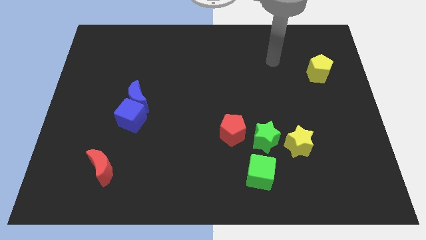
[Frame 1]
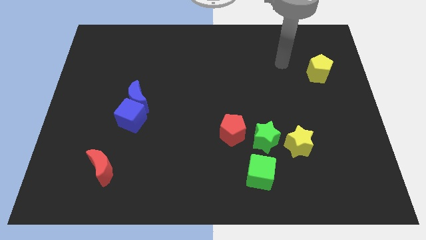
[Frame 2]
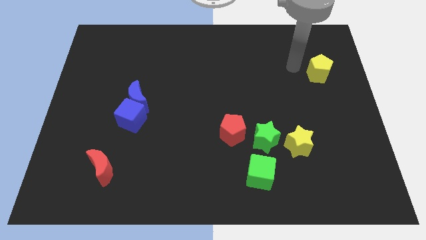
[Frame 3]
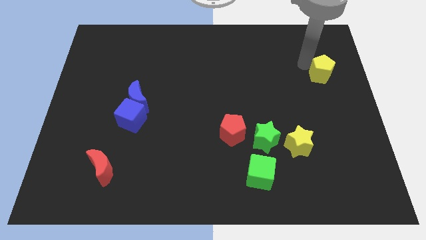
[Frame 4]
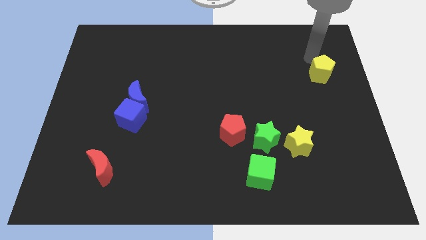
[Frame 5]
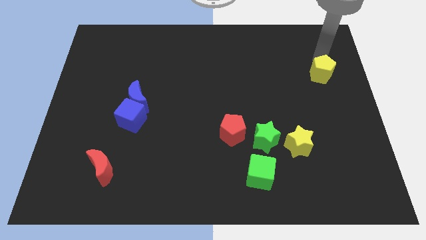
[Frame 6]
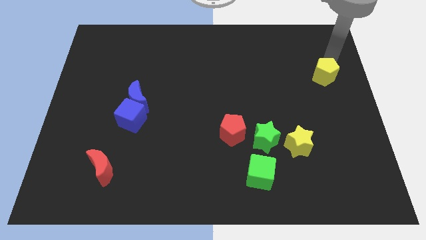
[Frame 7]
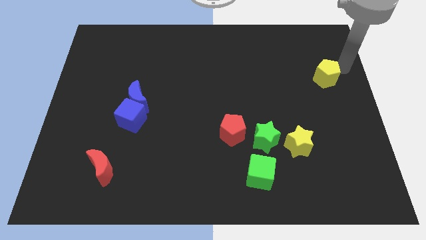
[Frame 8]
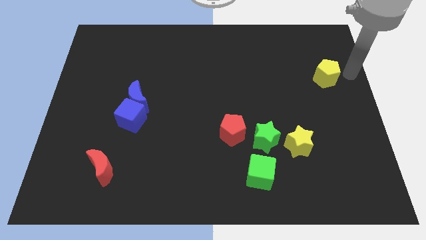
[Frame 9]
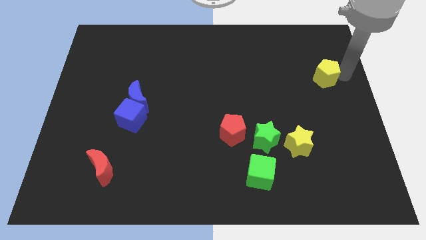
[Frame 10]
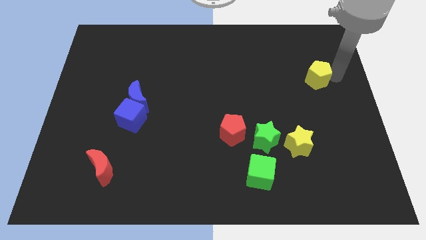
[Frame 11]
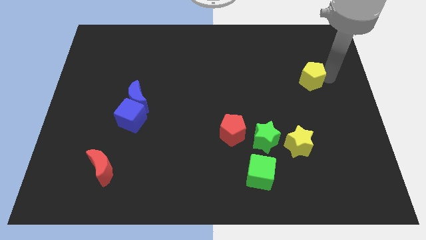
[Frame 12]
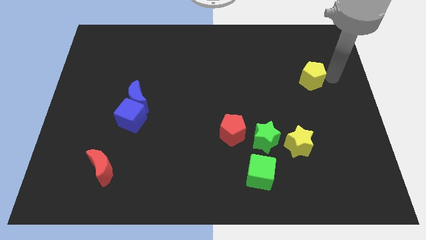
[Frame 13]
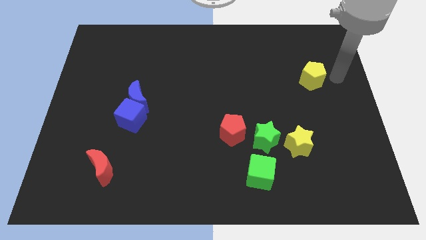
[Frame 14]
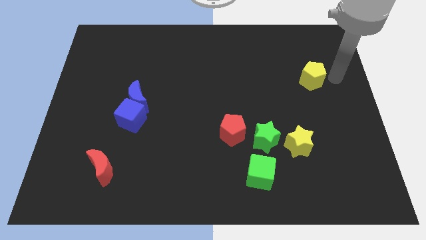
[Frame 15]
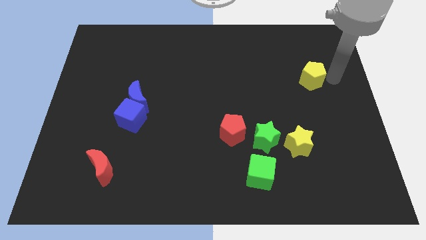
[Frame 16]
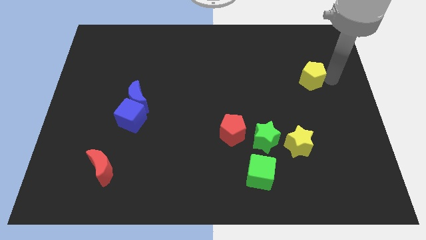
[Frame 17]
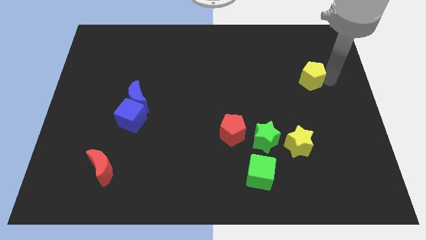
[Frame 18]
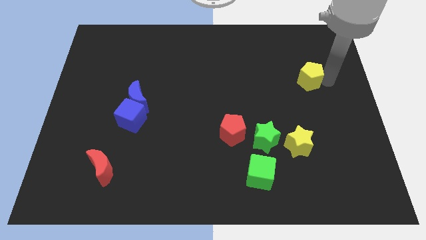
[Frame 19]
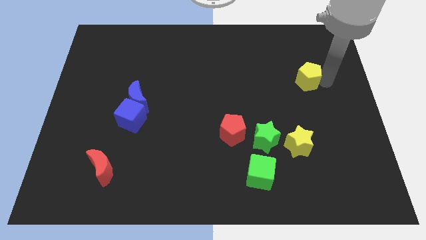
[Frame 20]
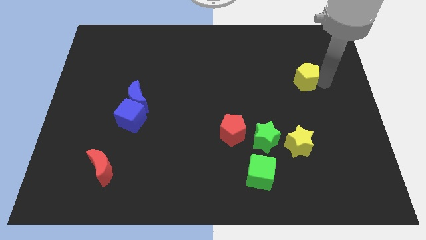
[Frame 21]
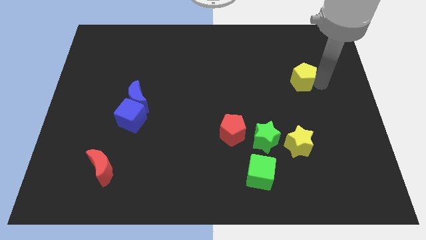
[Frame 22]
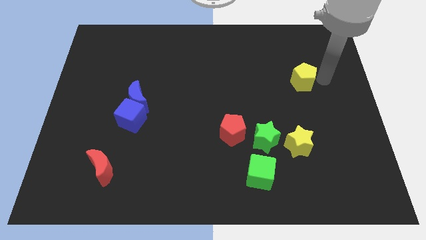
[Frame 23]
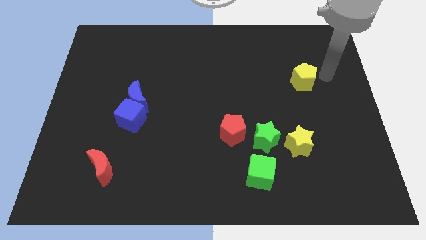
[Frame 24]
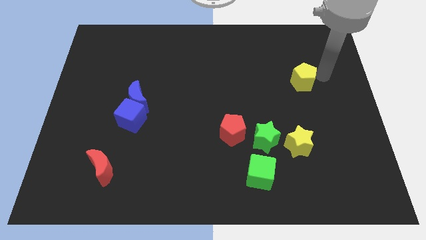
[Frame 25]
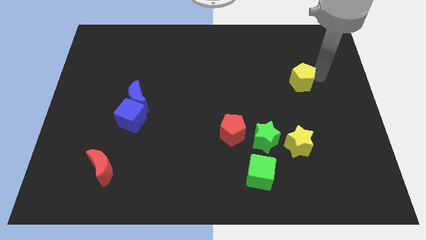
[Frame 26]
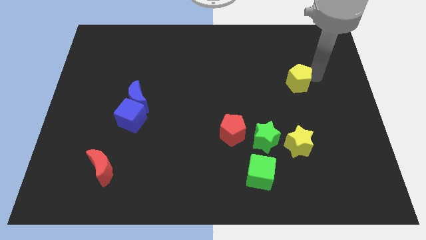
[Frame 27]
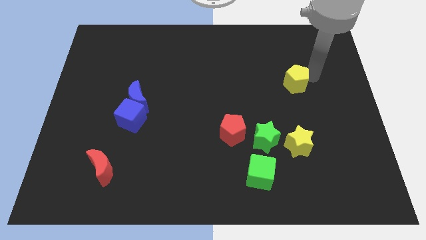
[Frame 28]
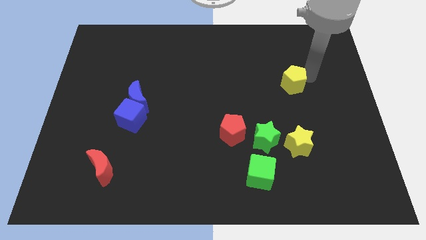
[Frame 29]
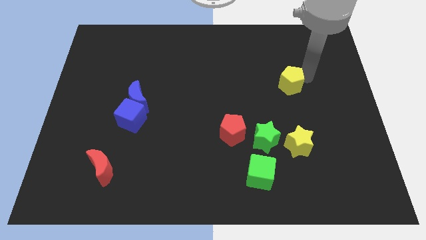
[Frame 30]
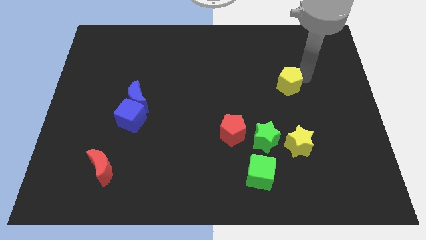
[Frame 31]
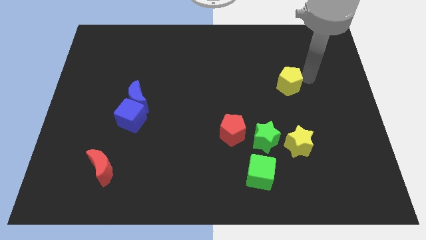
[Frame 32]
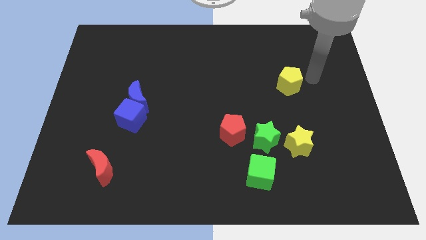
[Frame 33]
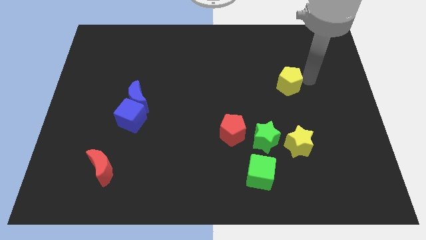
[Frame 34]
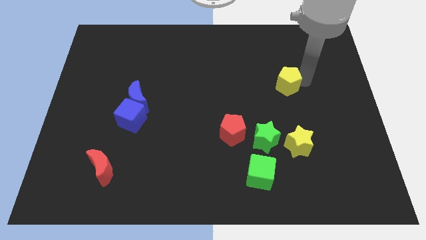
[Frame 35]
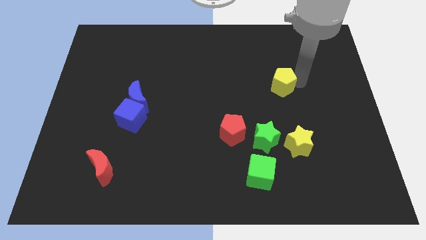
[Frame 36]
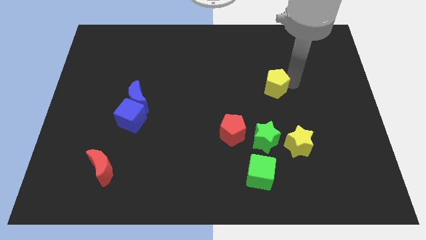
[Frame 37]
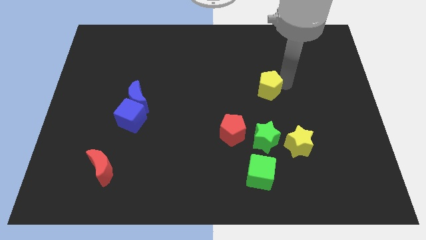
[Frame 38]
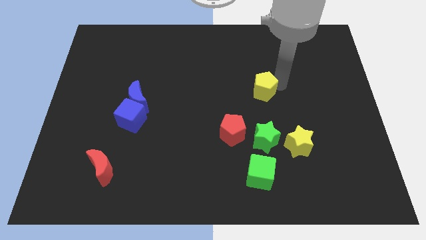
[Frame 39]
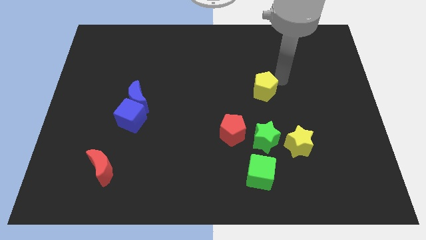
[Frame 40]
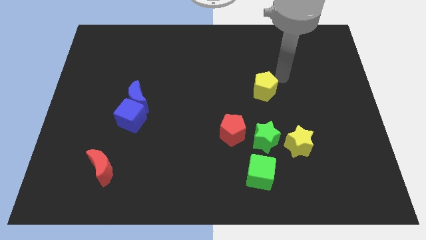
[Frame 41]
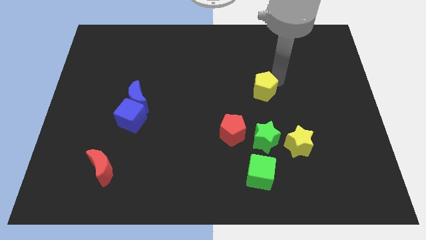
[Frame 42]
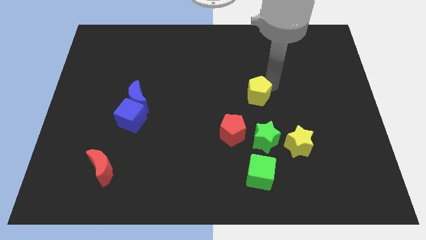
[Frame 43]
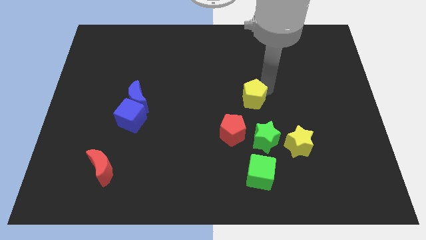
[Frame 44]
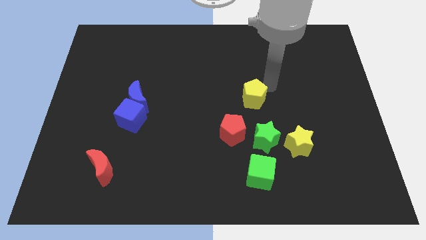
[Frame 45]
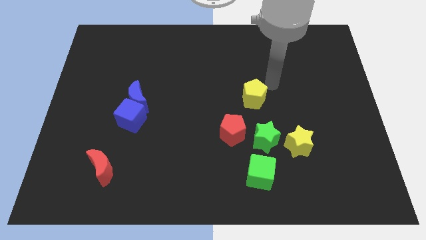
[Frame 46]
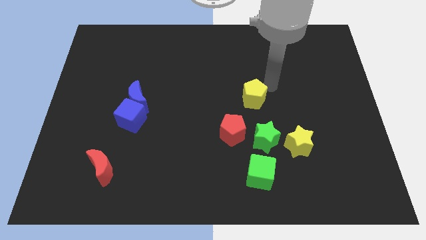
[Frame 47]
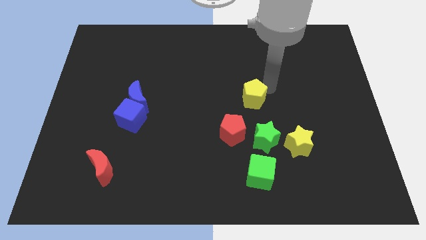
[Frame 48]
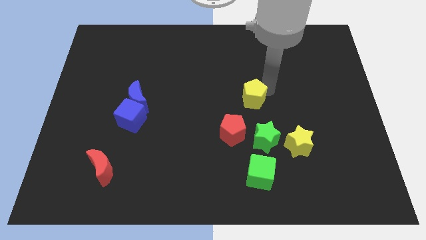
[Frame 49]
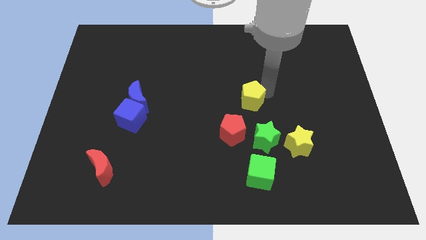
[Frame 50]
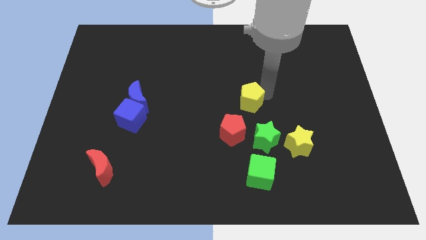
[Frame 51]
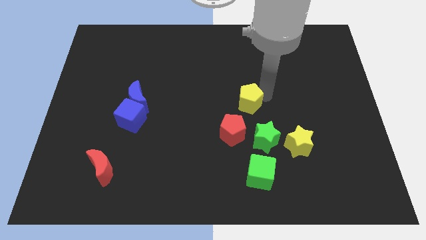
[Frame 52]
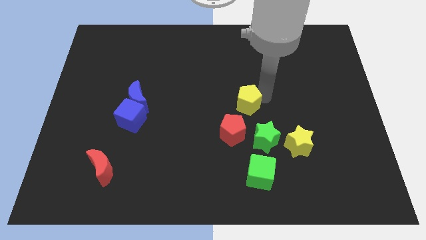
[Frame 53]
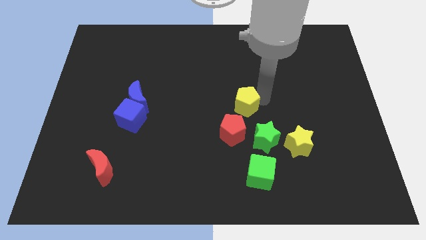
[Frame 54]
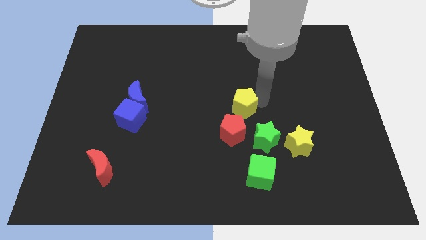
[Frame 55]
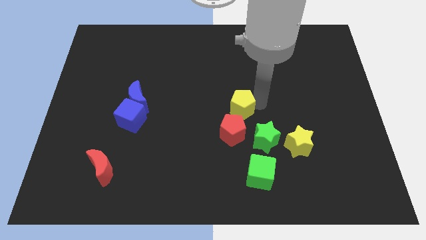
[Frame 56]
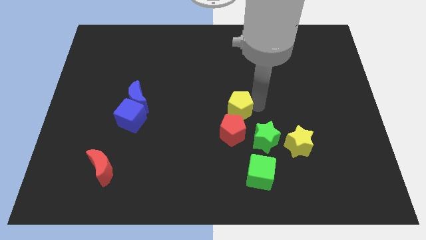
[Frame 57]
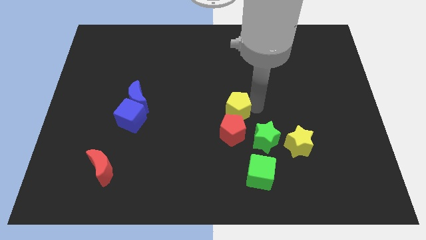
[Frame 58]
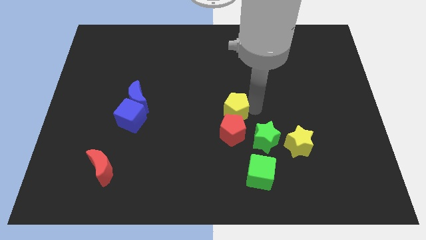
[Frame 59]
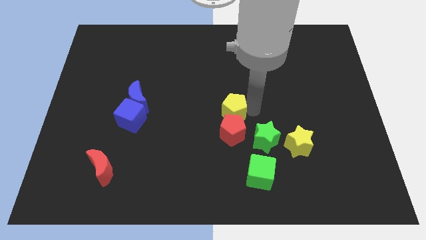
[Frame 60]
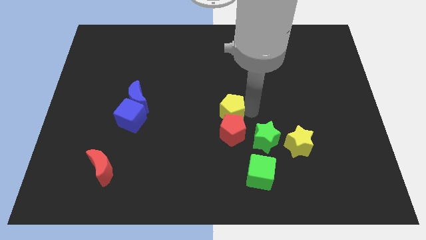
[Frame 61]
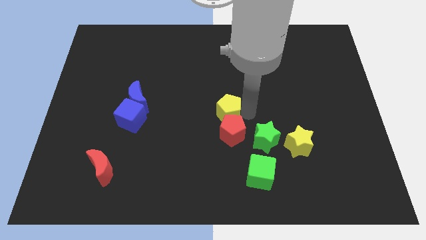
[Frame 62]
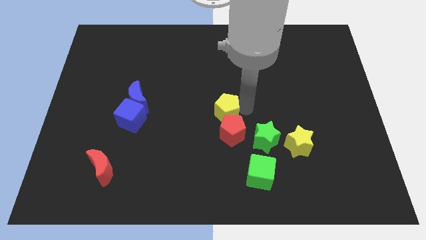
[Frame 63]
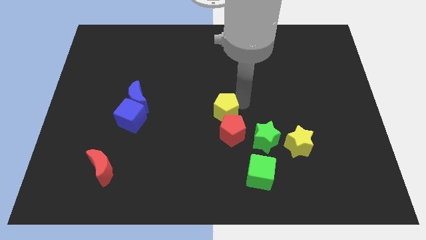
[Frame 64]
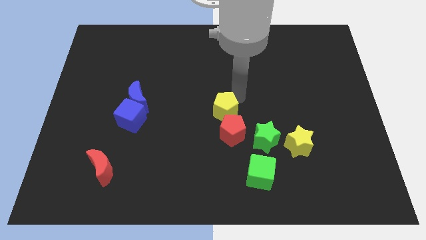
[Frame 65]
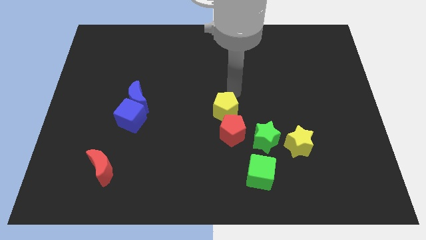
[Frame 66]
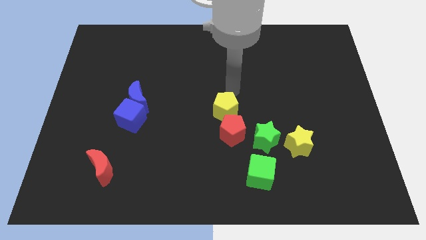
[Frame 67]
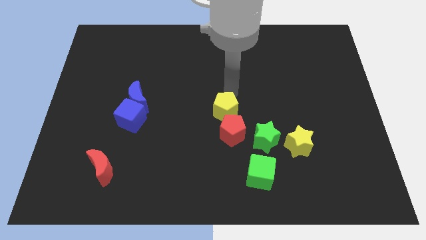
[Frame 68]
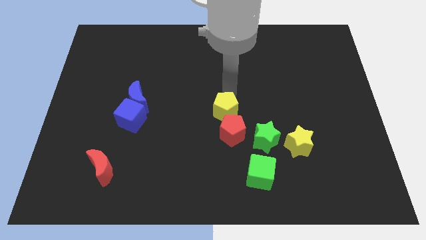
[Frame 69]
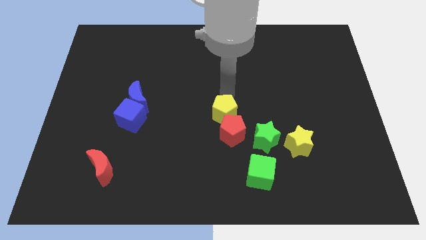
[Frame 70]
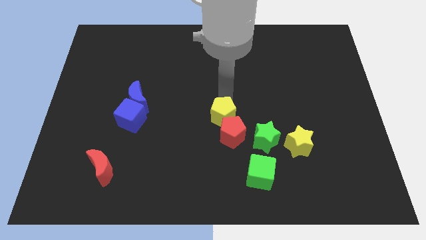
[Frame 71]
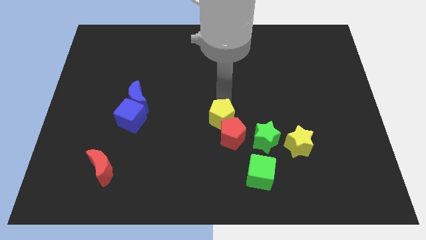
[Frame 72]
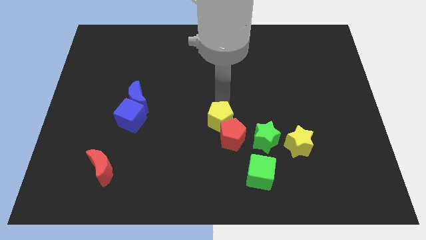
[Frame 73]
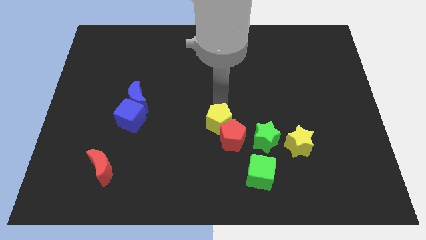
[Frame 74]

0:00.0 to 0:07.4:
slide the yellow pentagon to the left side of the green star

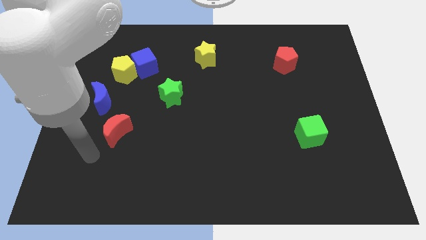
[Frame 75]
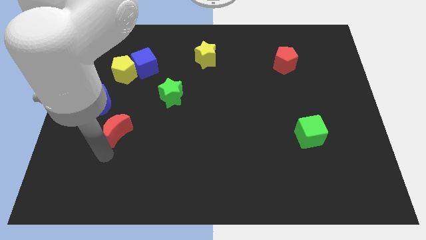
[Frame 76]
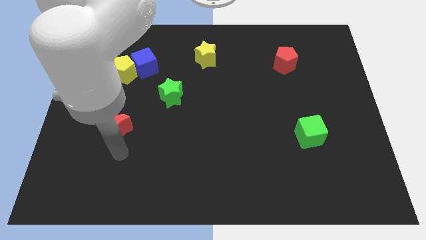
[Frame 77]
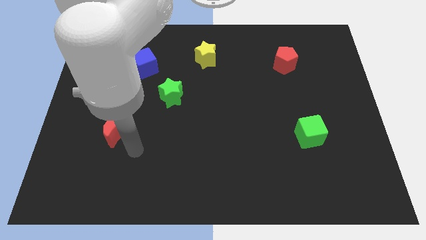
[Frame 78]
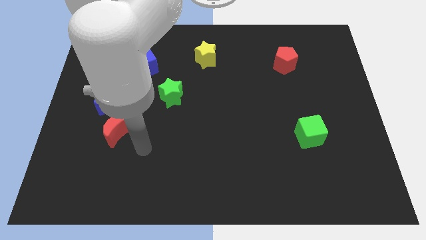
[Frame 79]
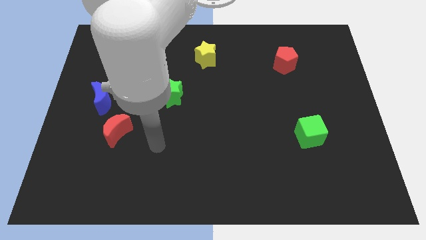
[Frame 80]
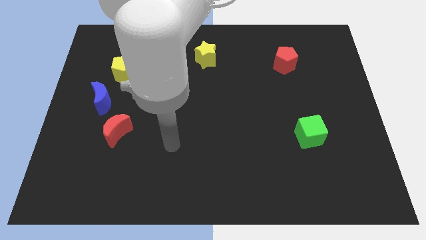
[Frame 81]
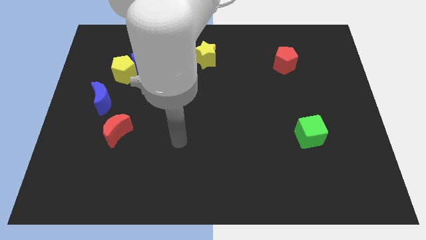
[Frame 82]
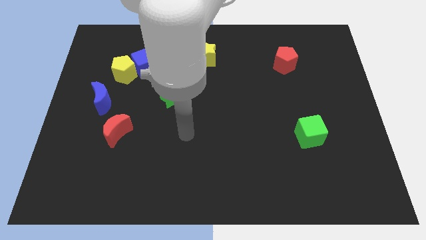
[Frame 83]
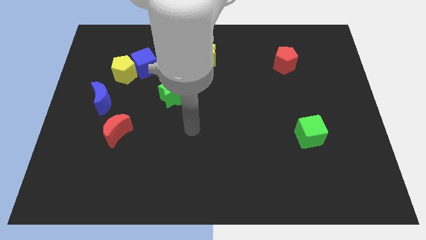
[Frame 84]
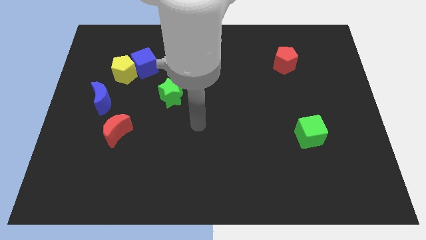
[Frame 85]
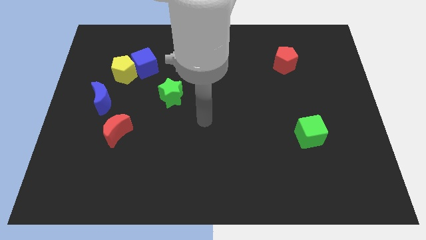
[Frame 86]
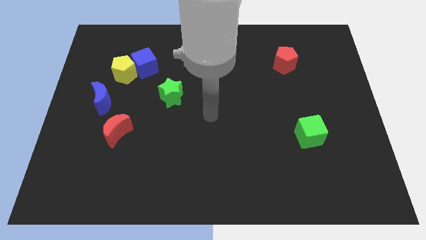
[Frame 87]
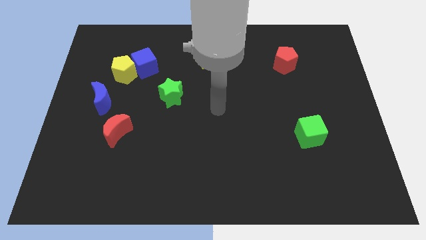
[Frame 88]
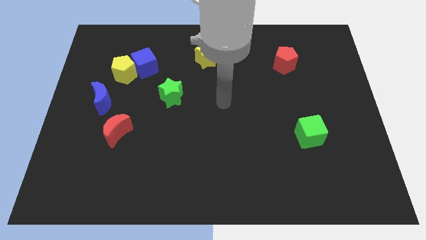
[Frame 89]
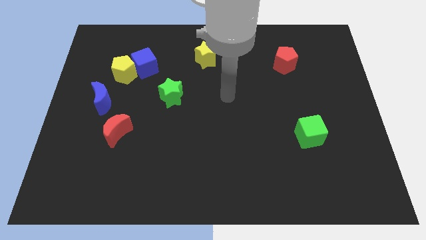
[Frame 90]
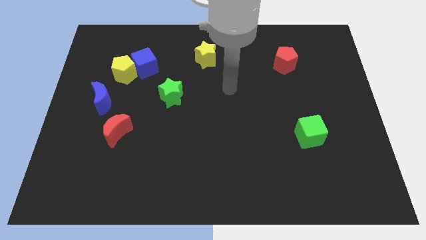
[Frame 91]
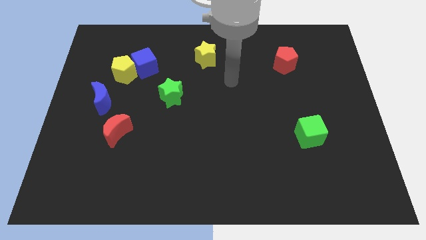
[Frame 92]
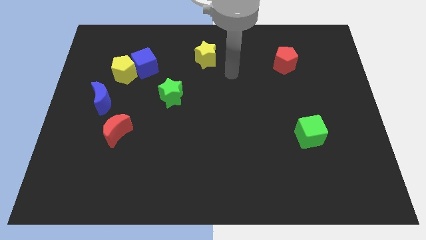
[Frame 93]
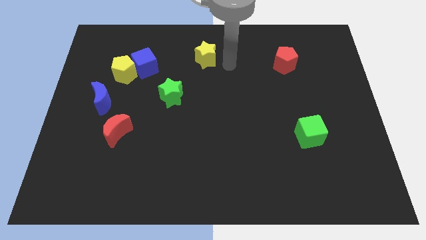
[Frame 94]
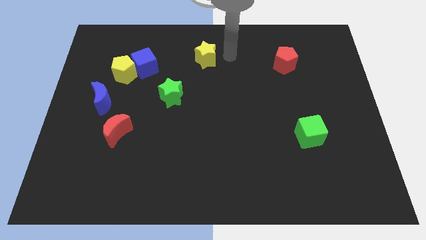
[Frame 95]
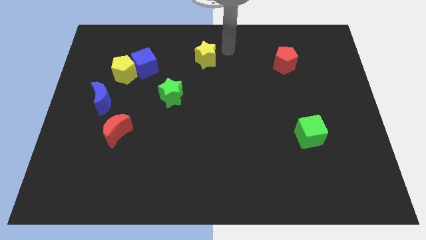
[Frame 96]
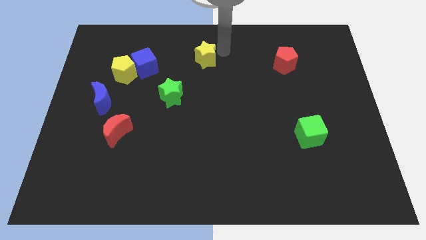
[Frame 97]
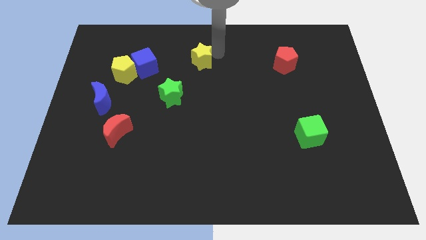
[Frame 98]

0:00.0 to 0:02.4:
put the yellow star just right of the blue cube
